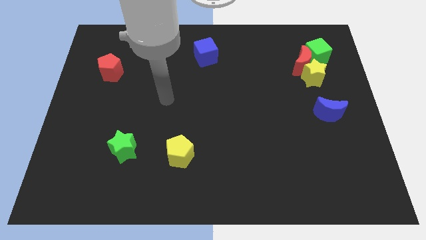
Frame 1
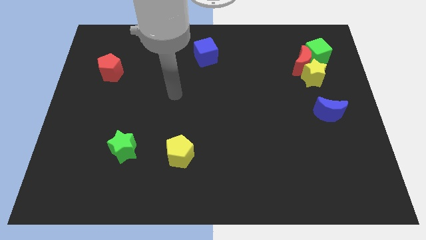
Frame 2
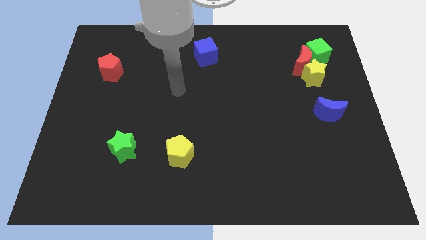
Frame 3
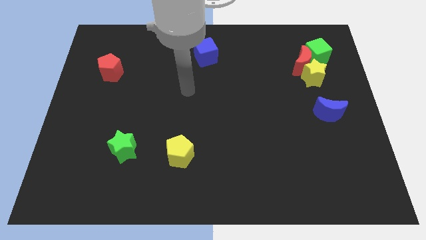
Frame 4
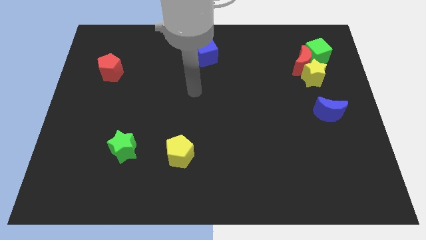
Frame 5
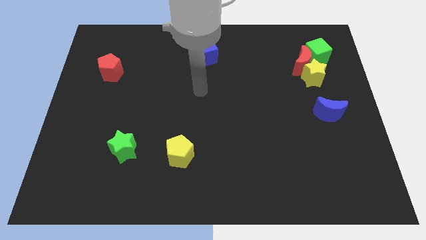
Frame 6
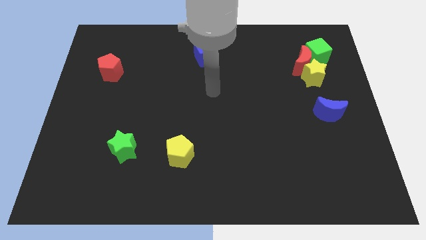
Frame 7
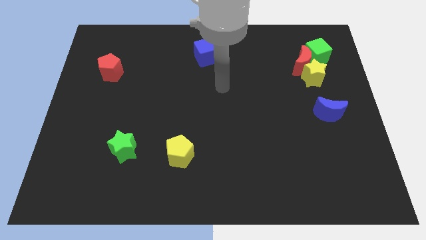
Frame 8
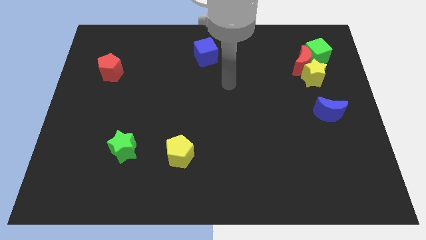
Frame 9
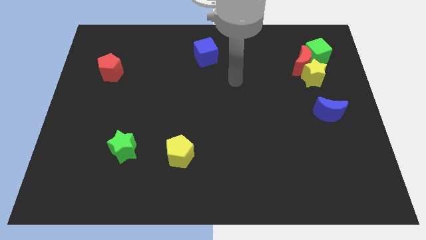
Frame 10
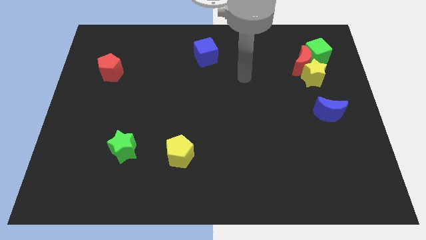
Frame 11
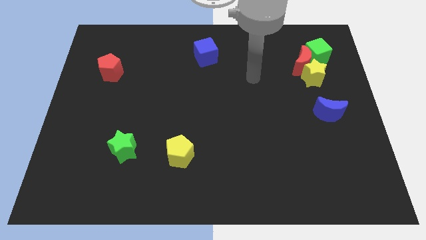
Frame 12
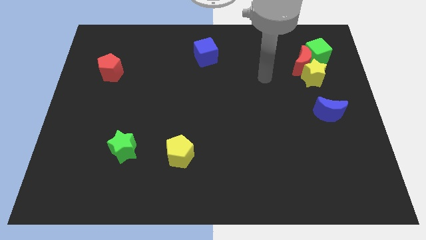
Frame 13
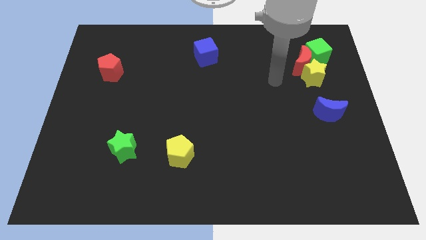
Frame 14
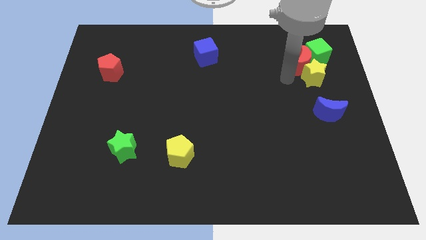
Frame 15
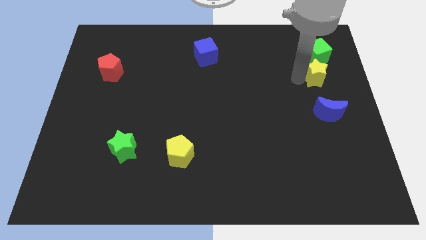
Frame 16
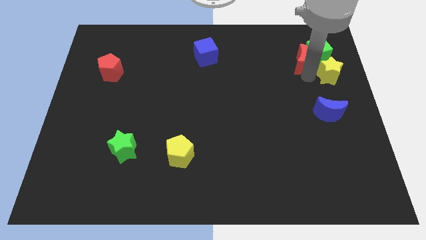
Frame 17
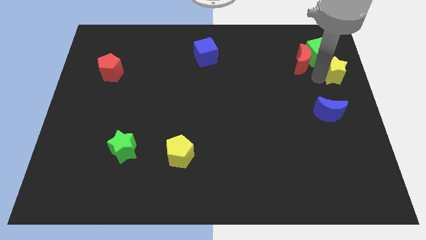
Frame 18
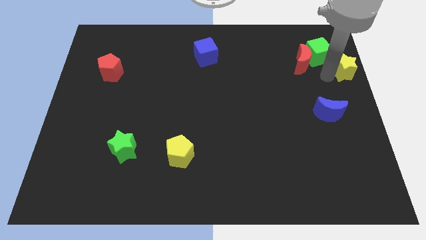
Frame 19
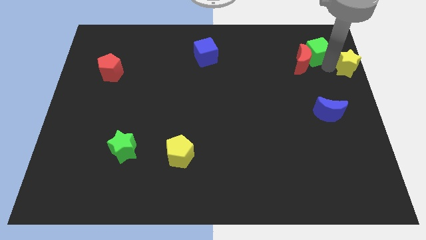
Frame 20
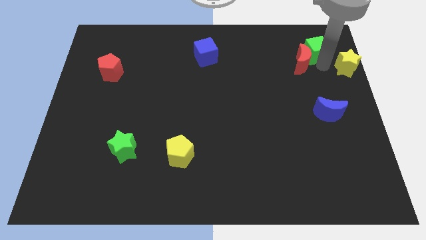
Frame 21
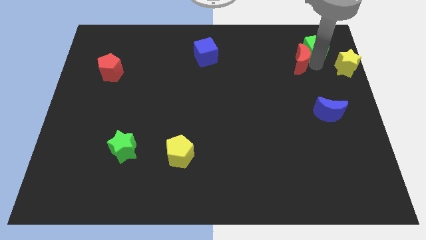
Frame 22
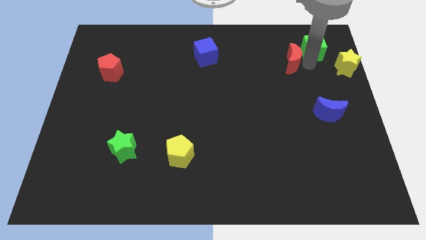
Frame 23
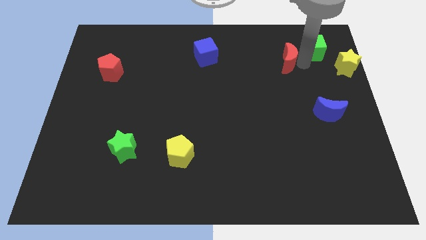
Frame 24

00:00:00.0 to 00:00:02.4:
separate the red moon from the yellow star and green cube

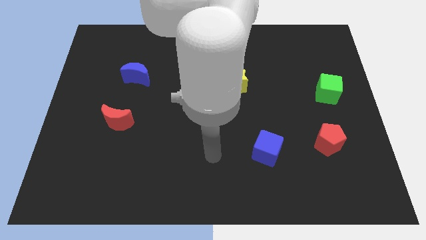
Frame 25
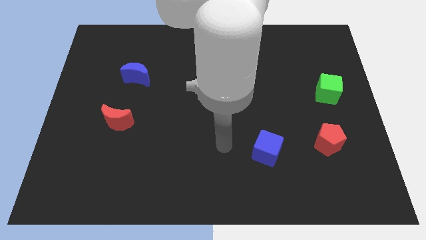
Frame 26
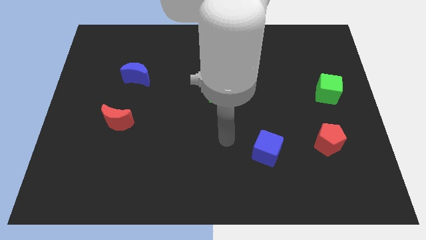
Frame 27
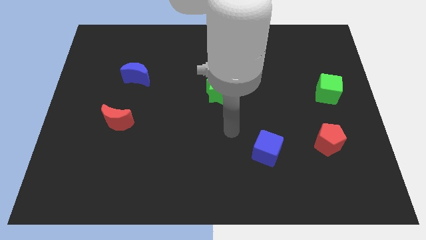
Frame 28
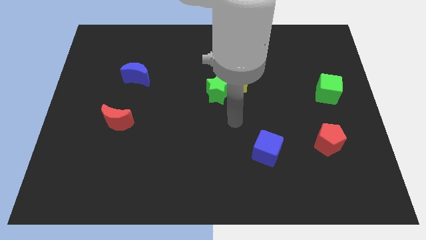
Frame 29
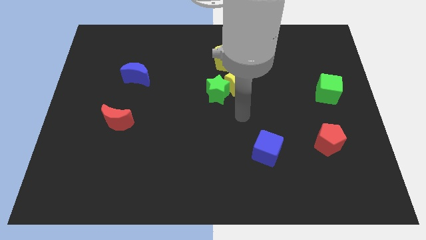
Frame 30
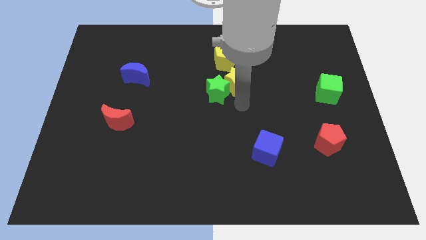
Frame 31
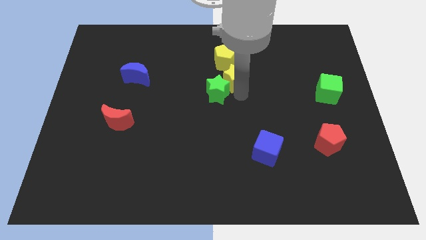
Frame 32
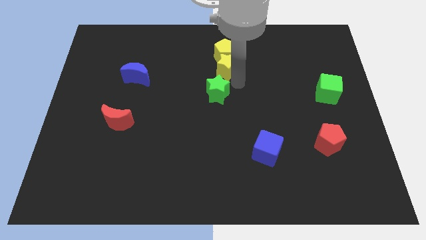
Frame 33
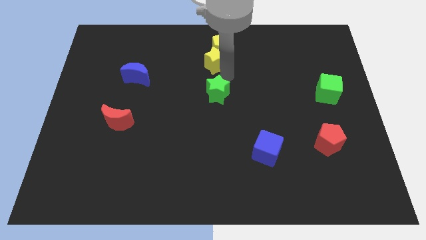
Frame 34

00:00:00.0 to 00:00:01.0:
move the green star away from the yellow star

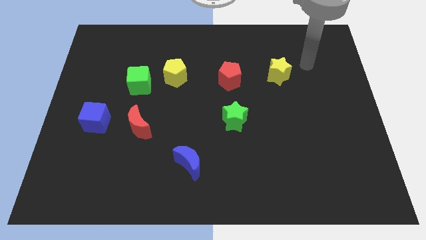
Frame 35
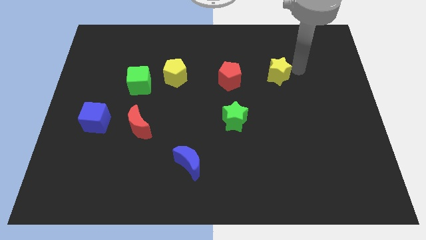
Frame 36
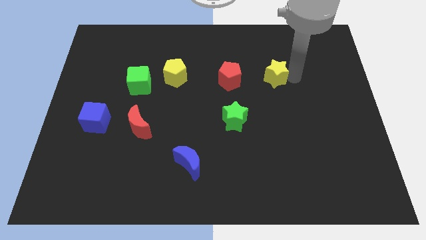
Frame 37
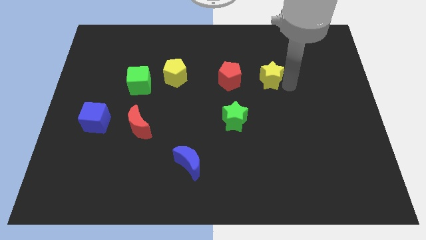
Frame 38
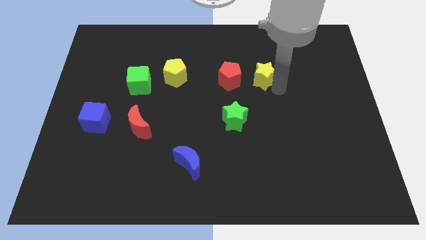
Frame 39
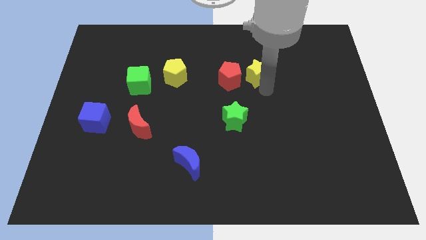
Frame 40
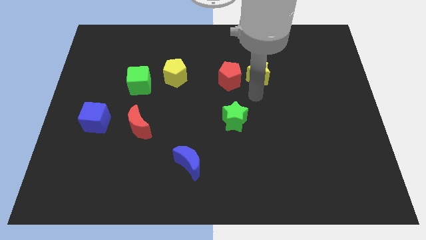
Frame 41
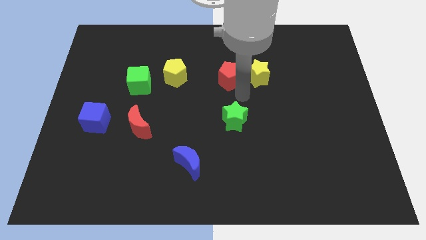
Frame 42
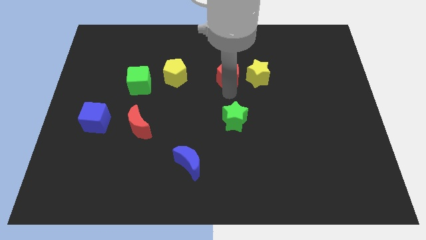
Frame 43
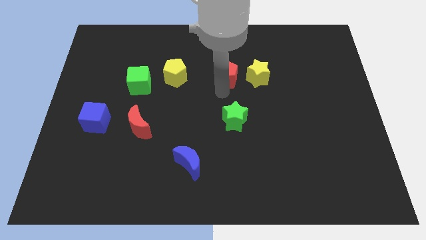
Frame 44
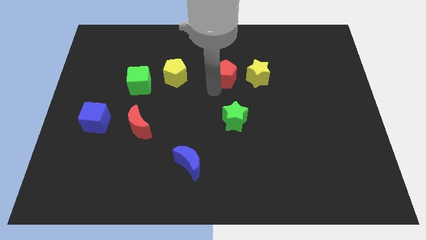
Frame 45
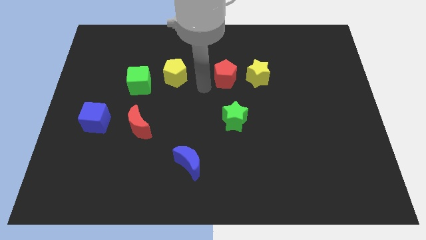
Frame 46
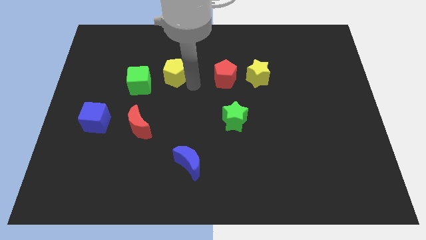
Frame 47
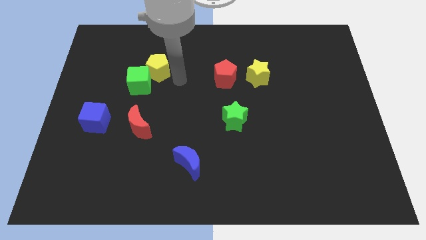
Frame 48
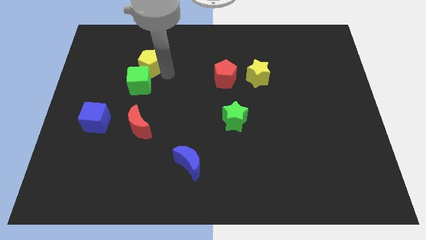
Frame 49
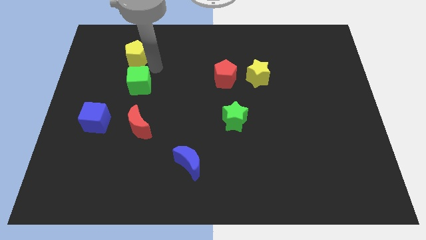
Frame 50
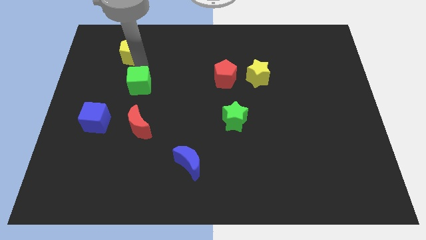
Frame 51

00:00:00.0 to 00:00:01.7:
pull the green cube apart from the yellow pentagon

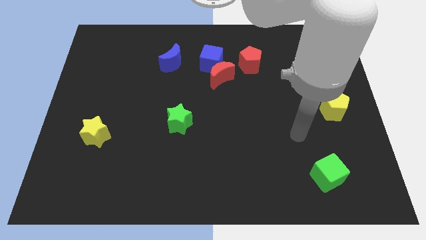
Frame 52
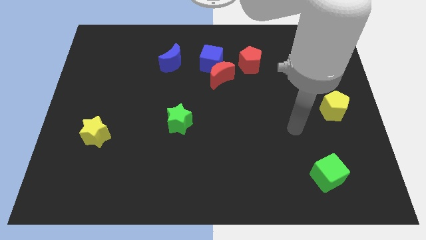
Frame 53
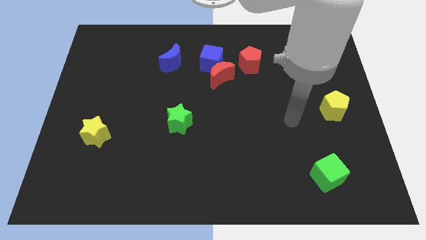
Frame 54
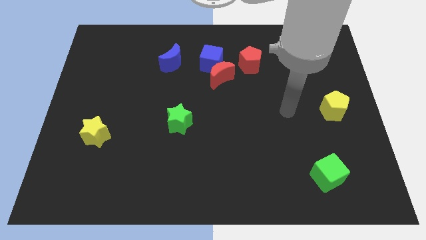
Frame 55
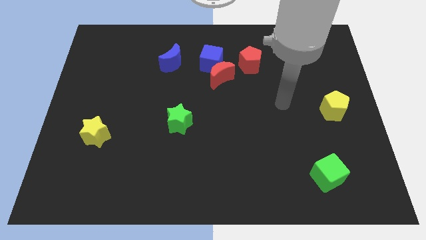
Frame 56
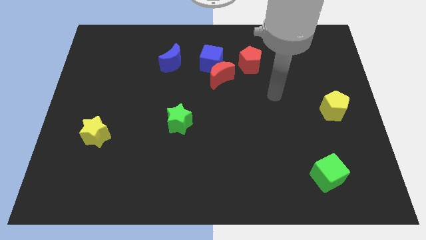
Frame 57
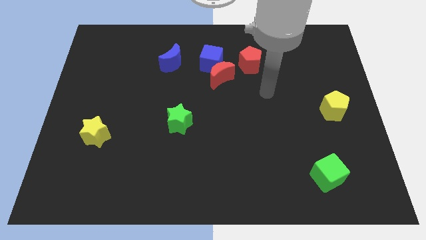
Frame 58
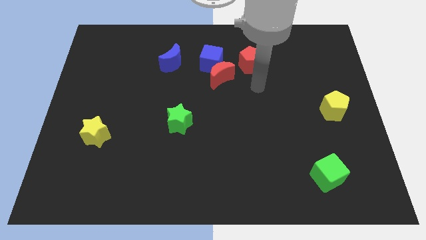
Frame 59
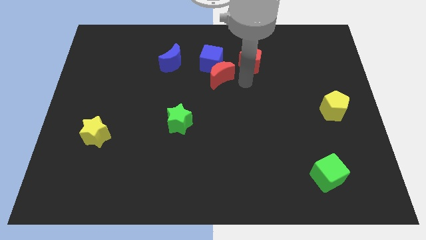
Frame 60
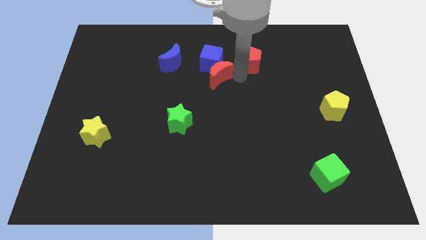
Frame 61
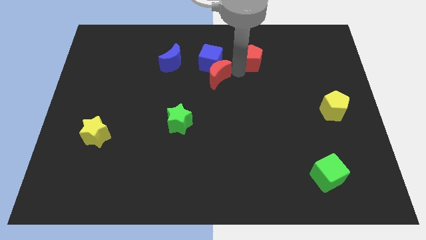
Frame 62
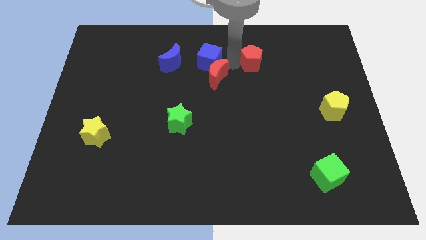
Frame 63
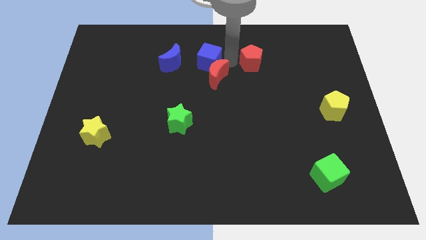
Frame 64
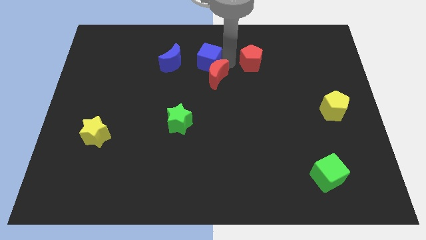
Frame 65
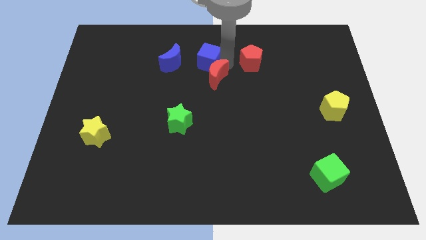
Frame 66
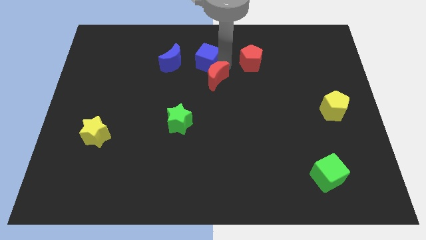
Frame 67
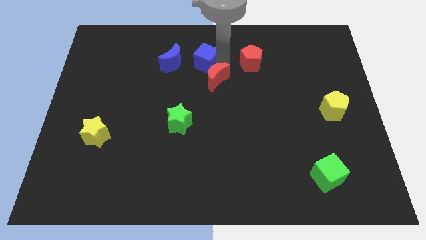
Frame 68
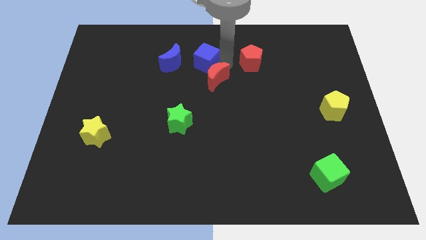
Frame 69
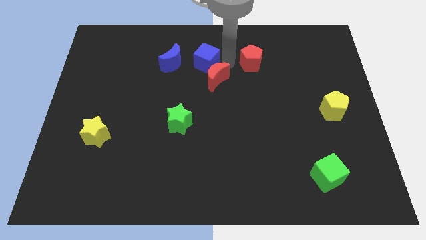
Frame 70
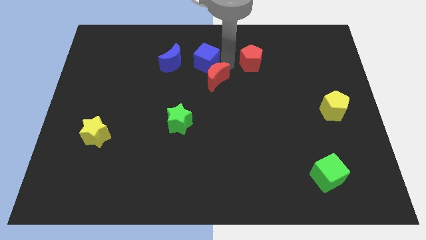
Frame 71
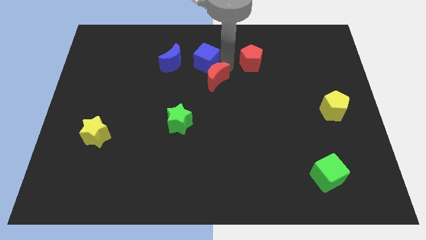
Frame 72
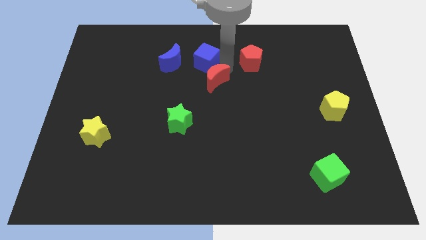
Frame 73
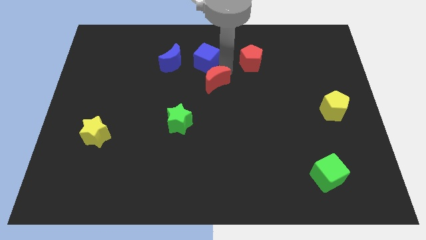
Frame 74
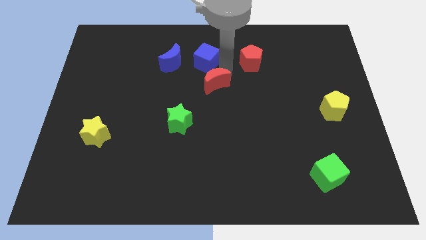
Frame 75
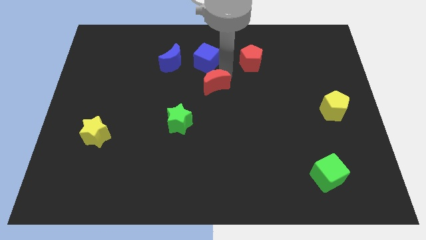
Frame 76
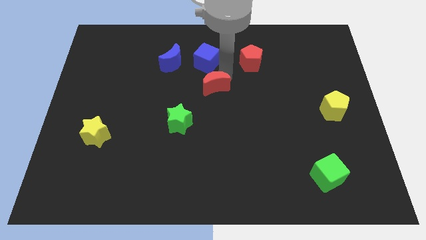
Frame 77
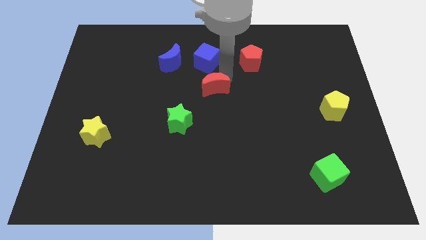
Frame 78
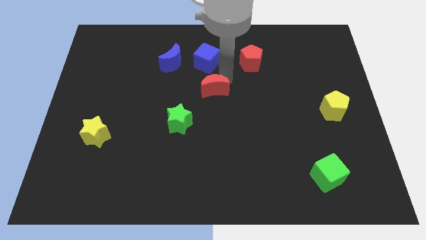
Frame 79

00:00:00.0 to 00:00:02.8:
pull the red moon apart from the blue cube and red pentagon

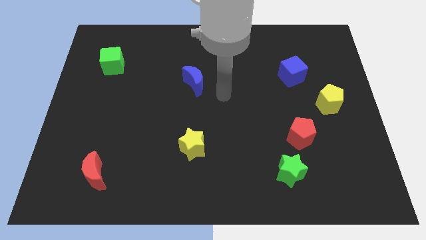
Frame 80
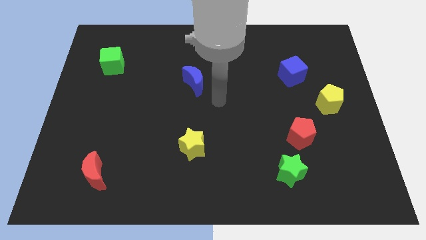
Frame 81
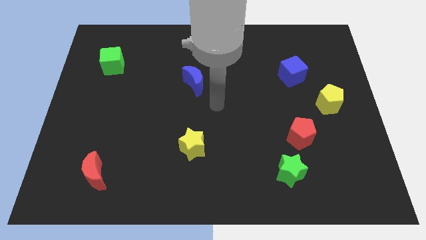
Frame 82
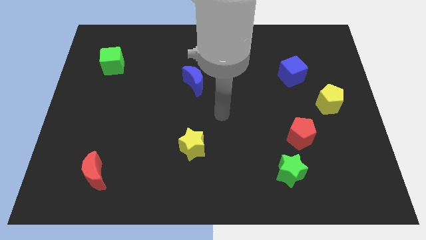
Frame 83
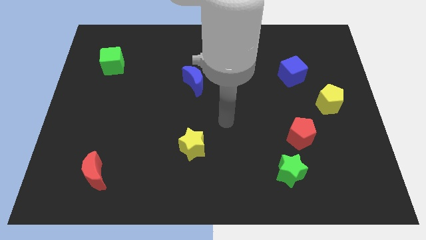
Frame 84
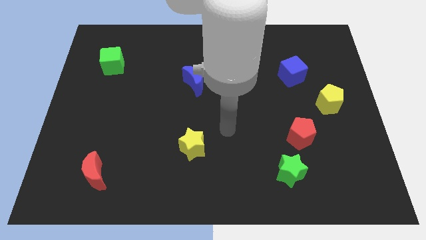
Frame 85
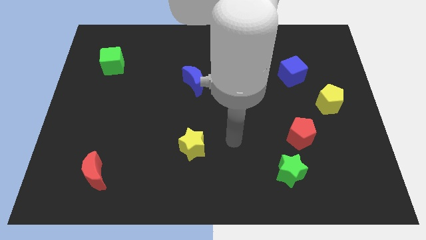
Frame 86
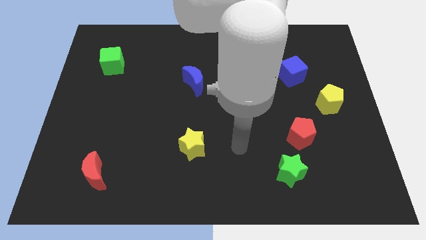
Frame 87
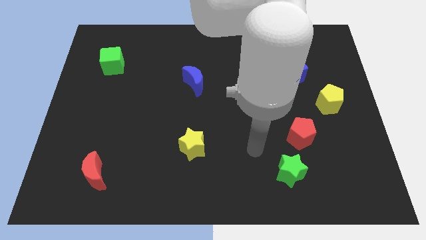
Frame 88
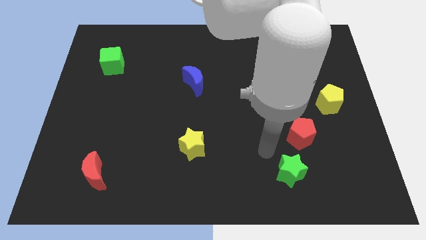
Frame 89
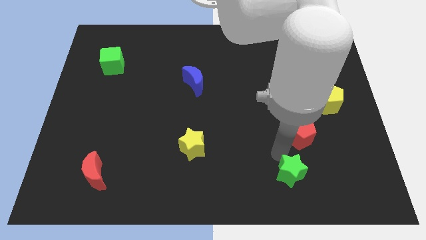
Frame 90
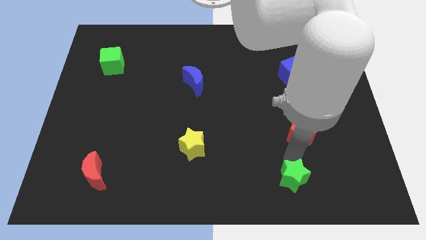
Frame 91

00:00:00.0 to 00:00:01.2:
move the red pentagon away from the green star

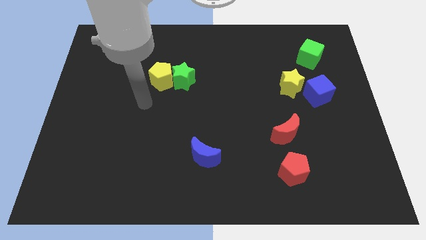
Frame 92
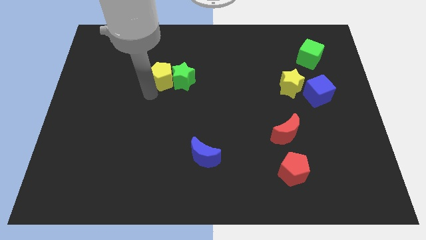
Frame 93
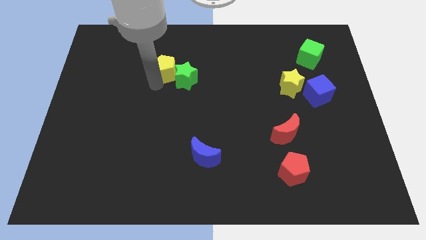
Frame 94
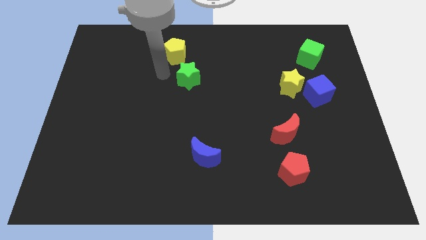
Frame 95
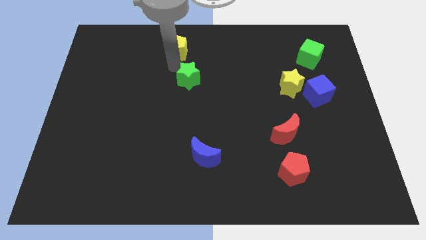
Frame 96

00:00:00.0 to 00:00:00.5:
separate the green star from the yellow pentagon
